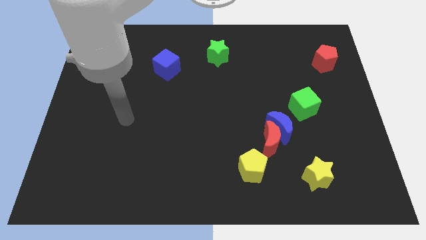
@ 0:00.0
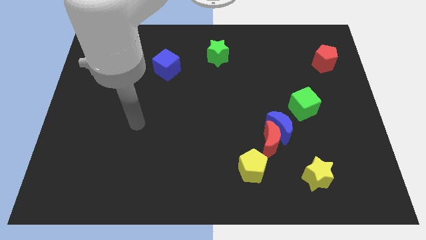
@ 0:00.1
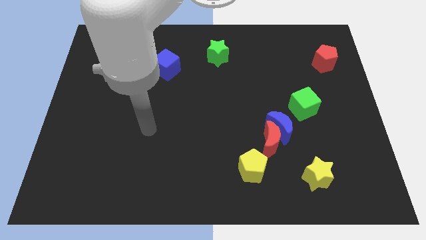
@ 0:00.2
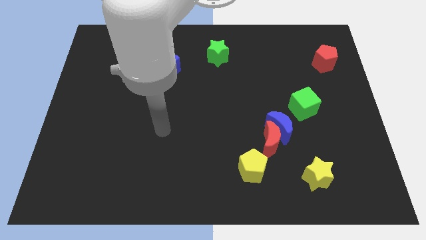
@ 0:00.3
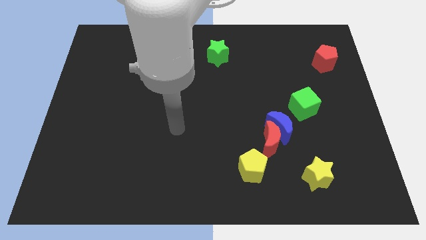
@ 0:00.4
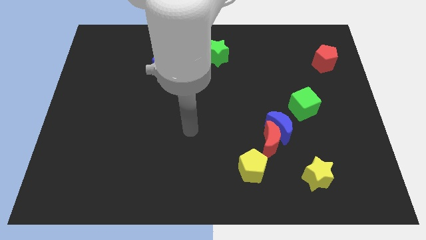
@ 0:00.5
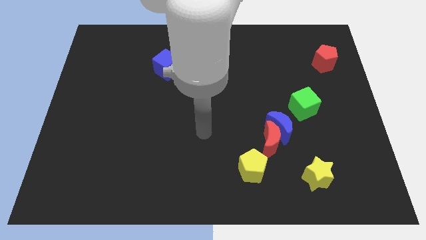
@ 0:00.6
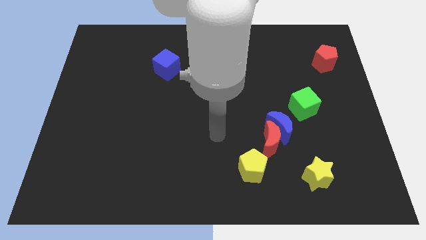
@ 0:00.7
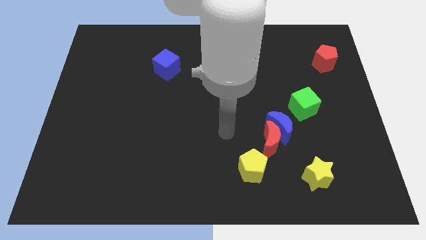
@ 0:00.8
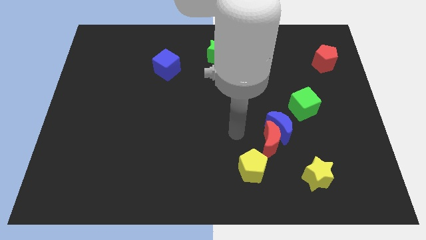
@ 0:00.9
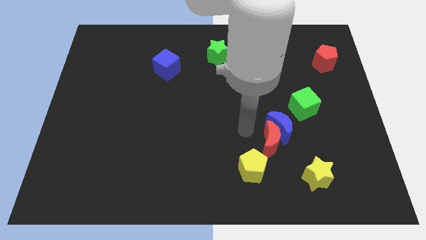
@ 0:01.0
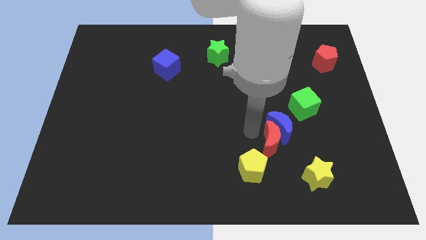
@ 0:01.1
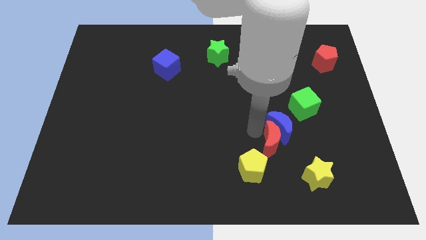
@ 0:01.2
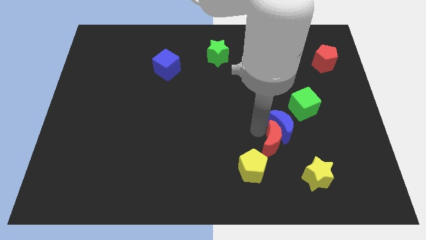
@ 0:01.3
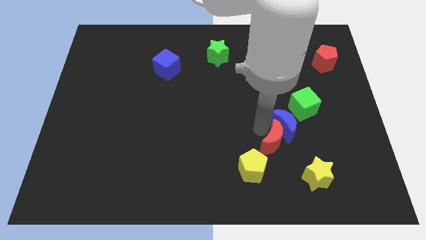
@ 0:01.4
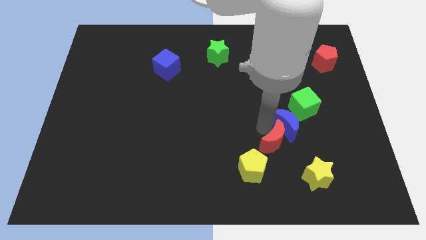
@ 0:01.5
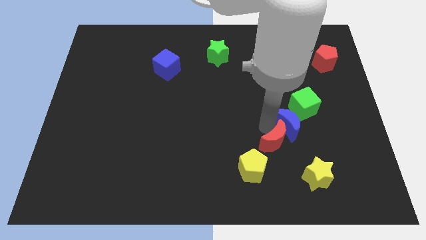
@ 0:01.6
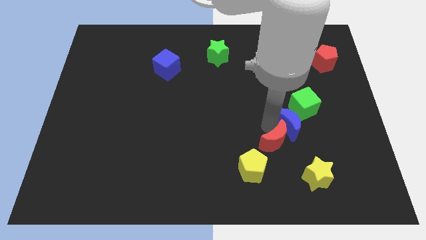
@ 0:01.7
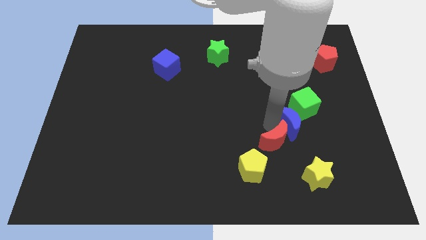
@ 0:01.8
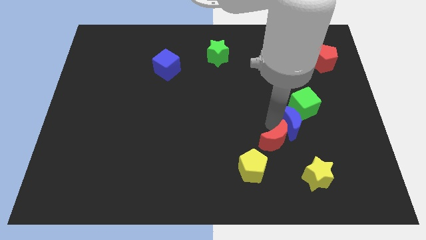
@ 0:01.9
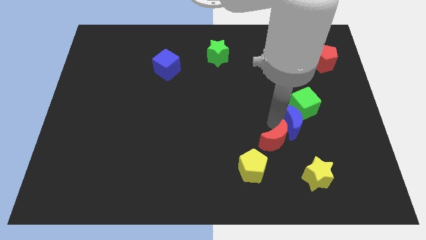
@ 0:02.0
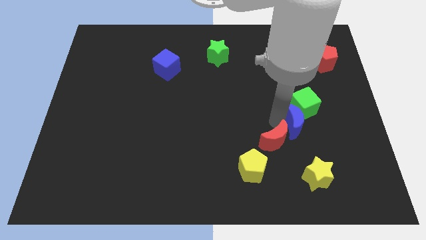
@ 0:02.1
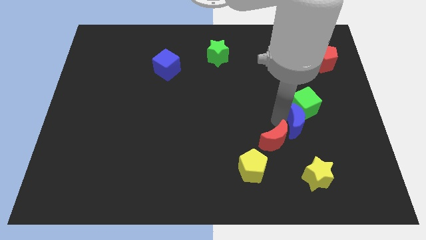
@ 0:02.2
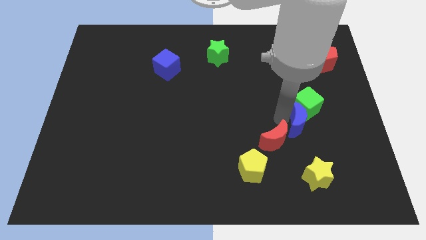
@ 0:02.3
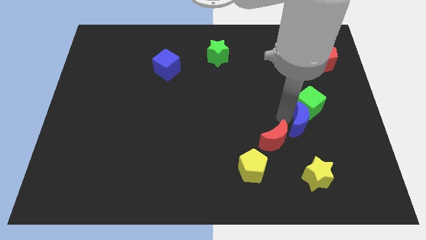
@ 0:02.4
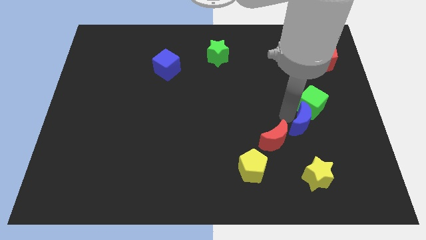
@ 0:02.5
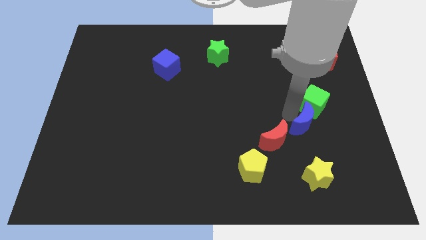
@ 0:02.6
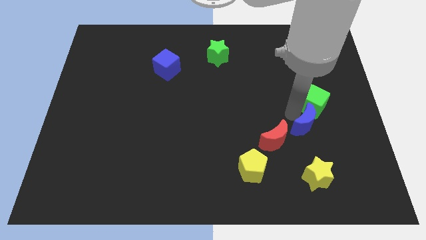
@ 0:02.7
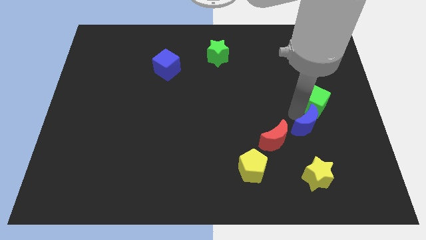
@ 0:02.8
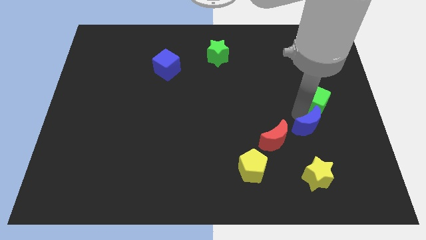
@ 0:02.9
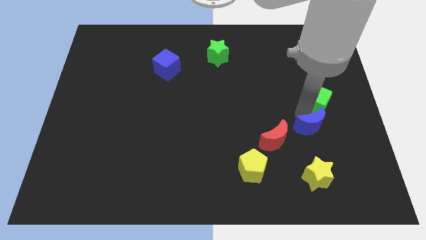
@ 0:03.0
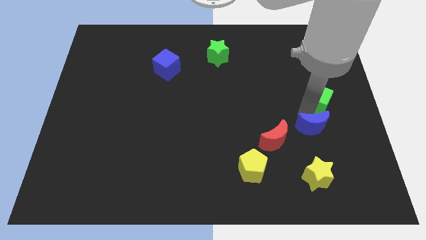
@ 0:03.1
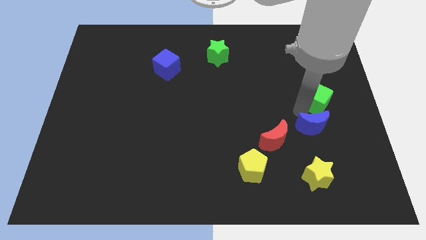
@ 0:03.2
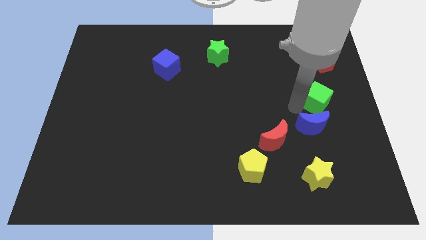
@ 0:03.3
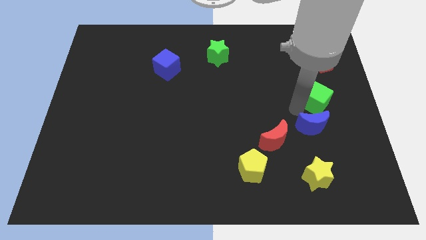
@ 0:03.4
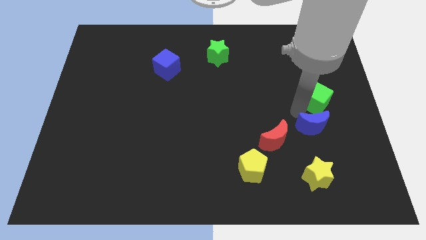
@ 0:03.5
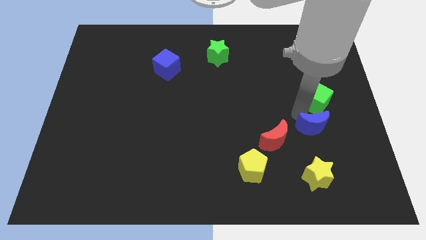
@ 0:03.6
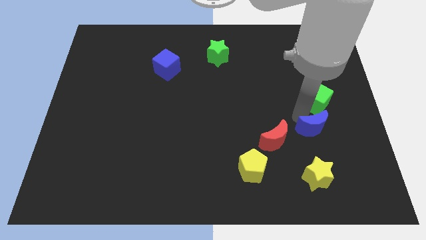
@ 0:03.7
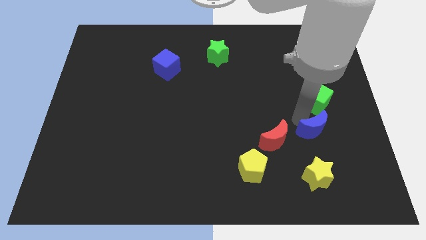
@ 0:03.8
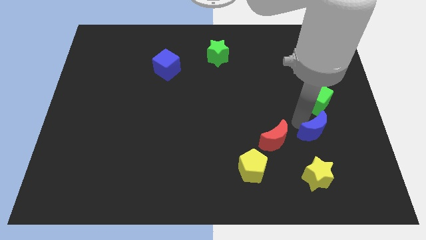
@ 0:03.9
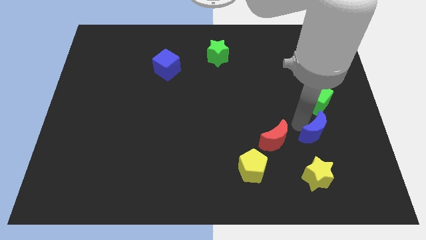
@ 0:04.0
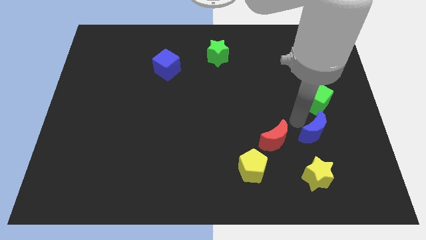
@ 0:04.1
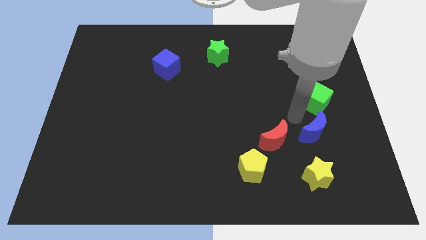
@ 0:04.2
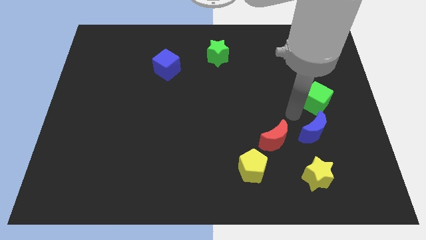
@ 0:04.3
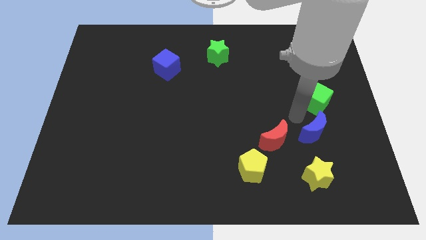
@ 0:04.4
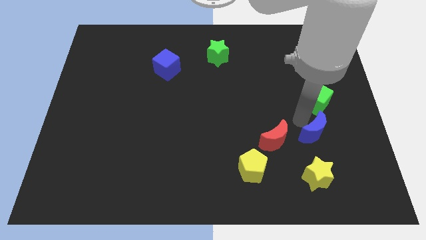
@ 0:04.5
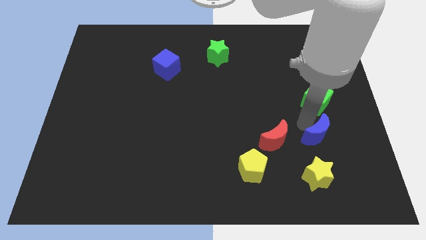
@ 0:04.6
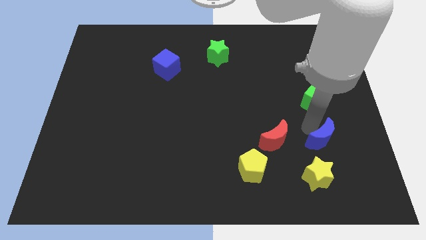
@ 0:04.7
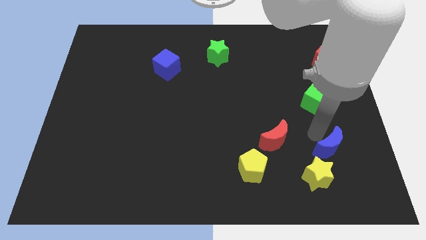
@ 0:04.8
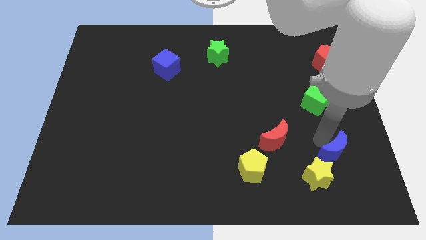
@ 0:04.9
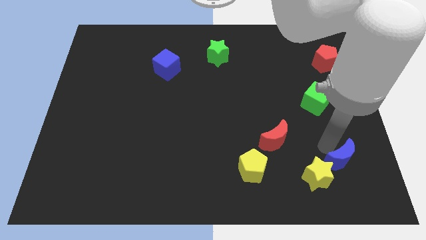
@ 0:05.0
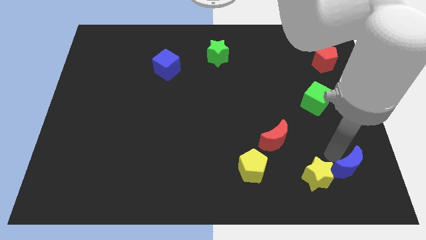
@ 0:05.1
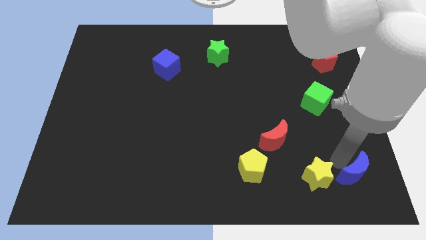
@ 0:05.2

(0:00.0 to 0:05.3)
push the blue moon to the bottom right

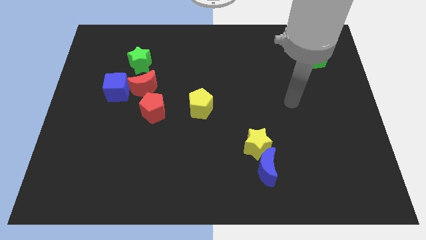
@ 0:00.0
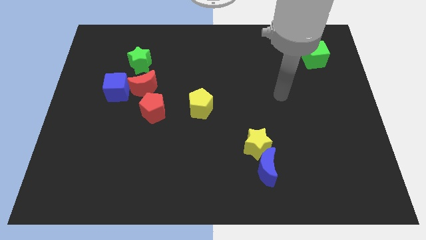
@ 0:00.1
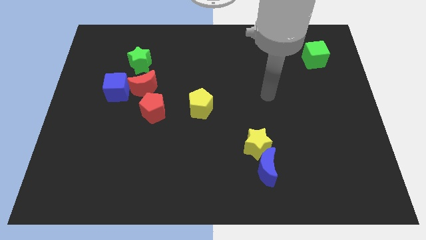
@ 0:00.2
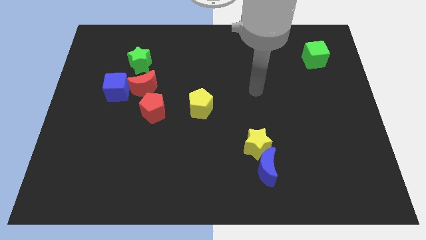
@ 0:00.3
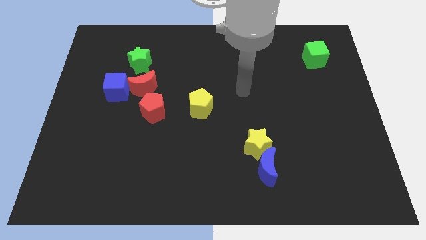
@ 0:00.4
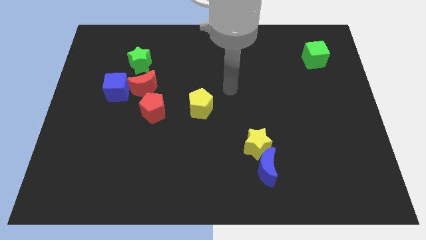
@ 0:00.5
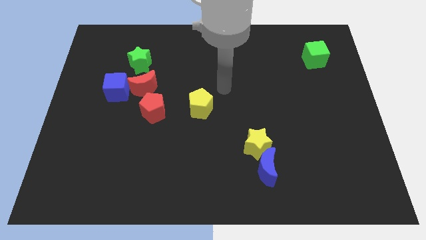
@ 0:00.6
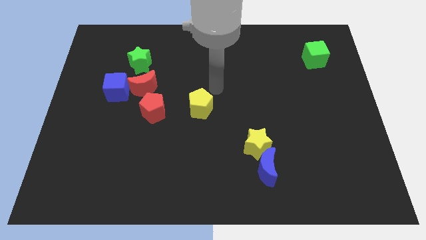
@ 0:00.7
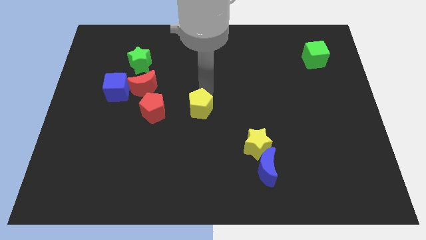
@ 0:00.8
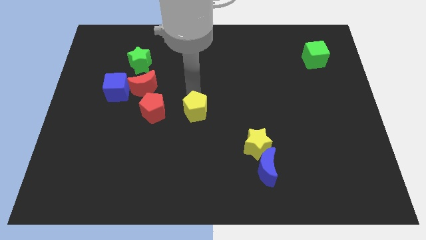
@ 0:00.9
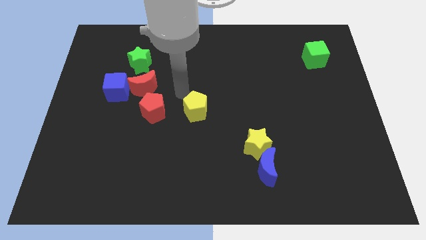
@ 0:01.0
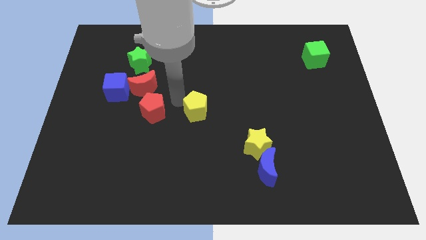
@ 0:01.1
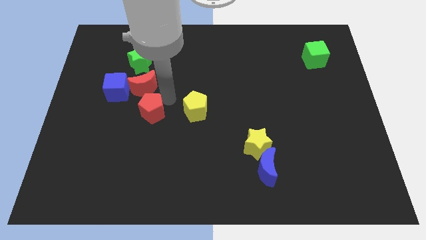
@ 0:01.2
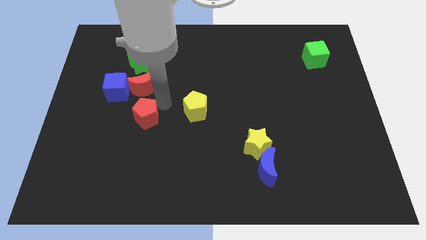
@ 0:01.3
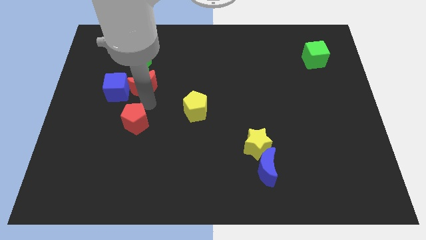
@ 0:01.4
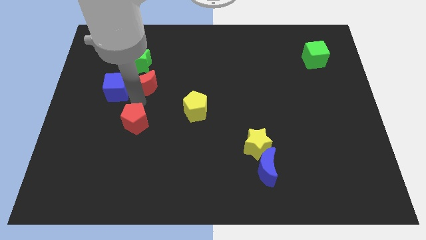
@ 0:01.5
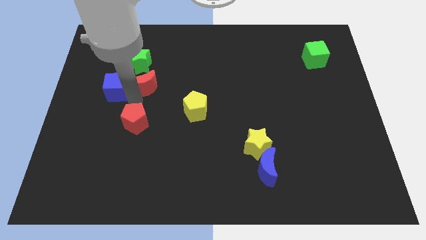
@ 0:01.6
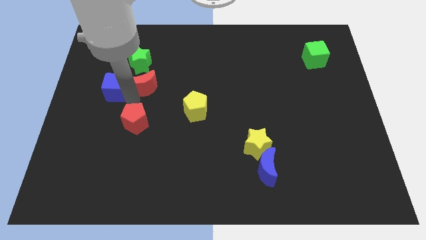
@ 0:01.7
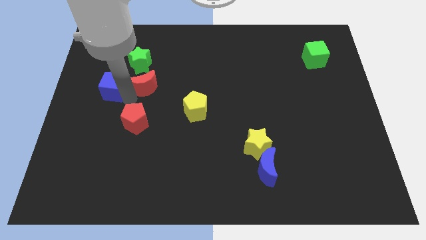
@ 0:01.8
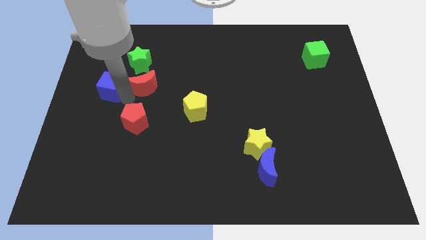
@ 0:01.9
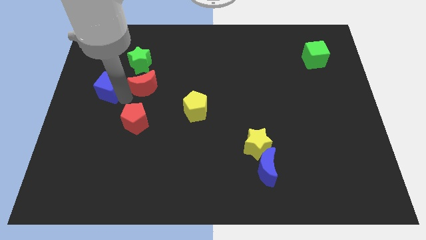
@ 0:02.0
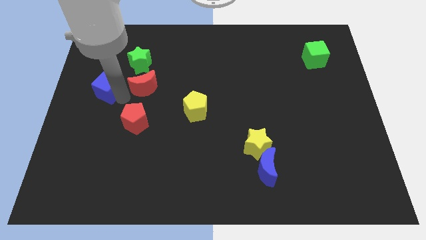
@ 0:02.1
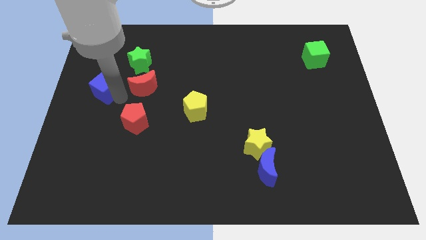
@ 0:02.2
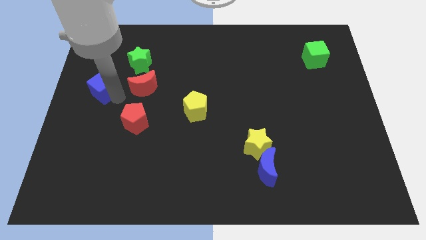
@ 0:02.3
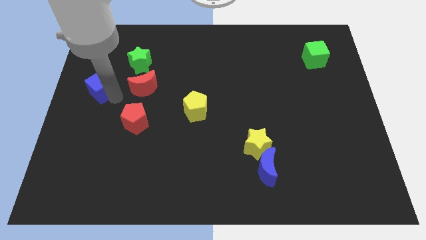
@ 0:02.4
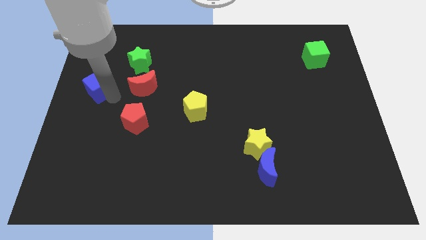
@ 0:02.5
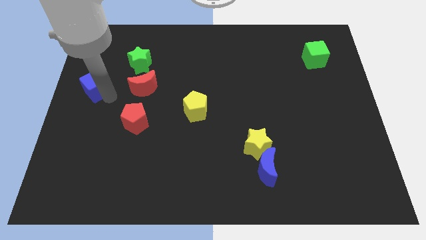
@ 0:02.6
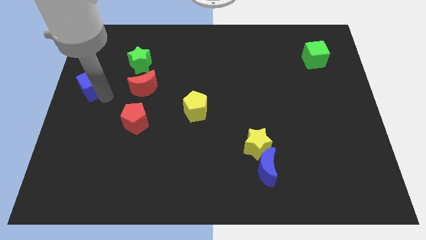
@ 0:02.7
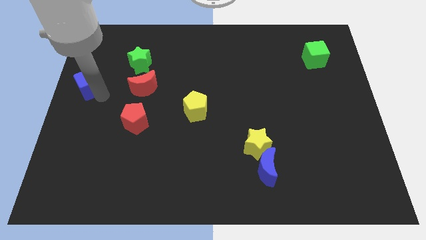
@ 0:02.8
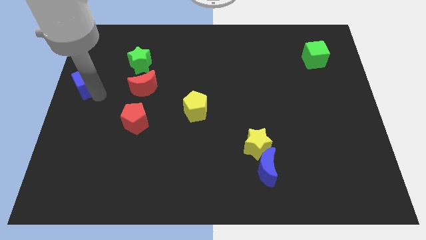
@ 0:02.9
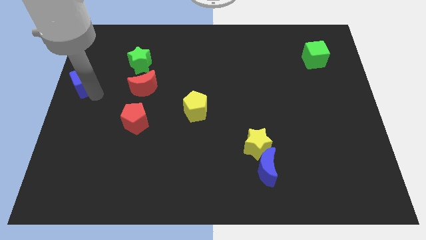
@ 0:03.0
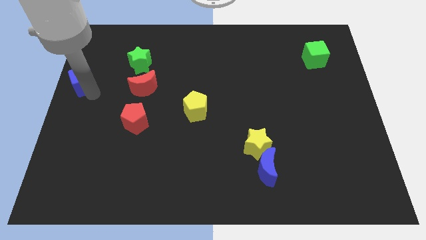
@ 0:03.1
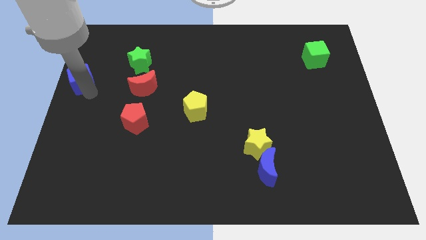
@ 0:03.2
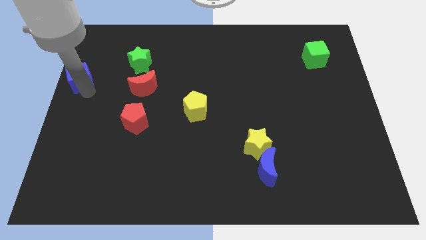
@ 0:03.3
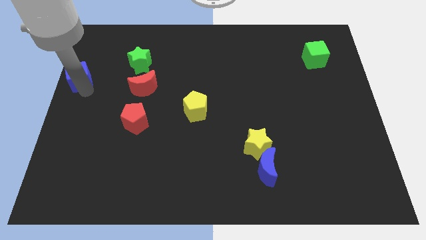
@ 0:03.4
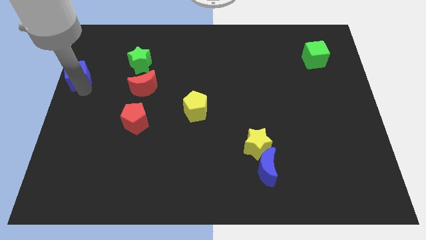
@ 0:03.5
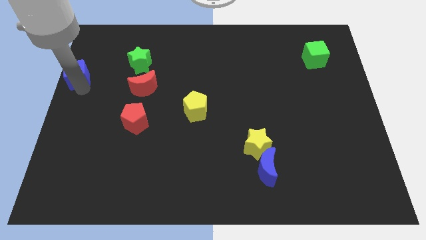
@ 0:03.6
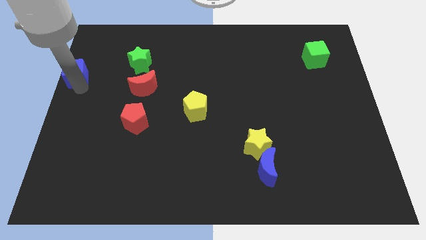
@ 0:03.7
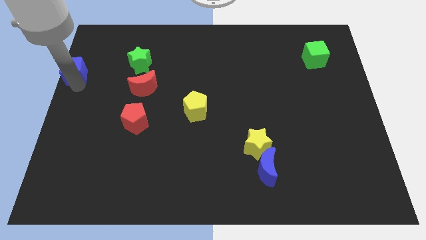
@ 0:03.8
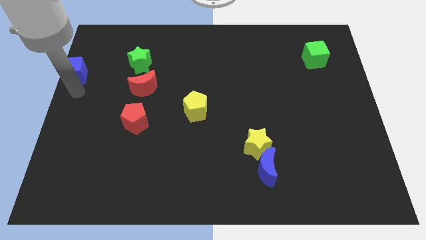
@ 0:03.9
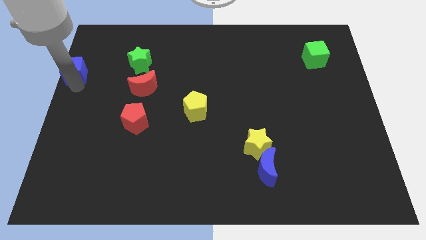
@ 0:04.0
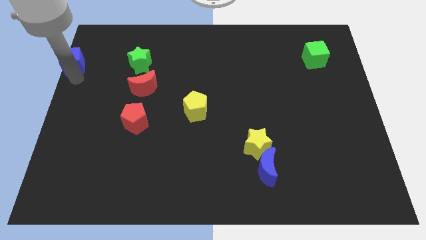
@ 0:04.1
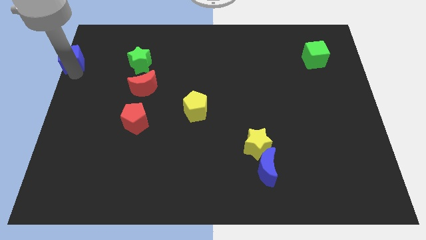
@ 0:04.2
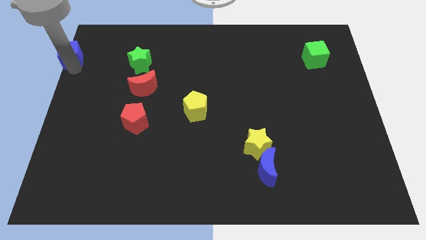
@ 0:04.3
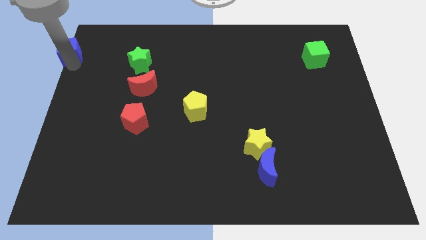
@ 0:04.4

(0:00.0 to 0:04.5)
push the blue cube to the upper left corner
